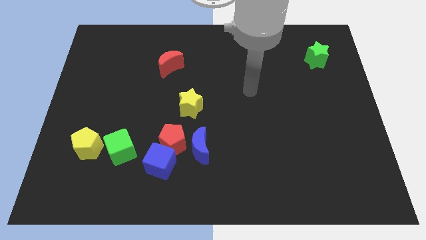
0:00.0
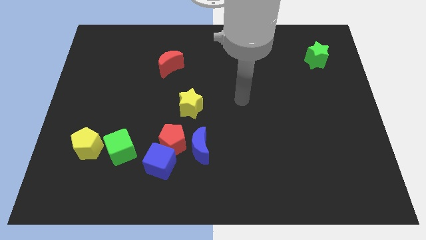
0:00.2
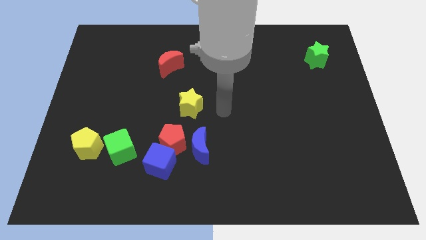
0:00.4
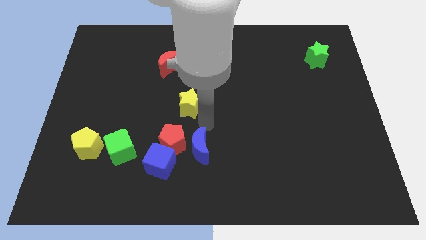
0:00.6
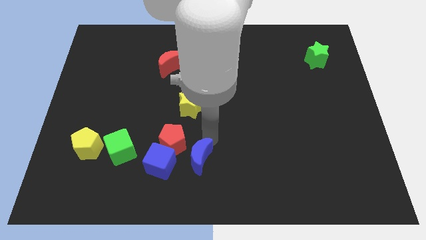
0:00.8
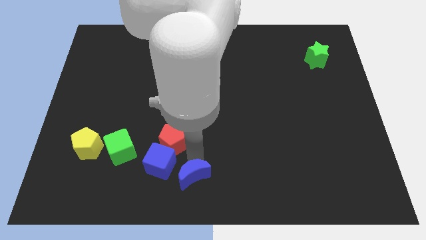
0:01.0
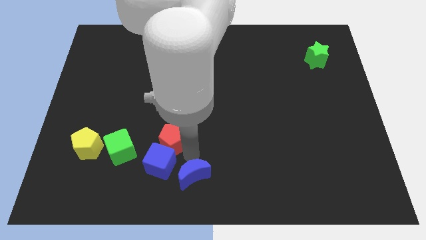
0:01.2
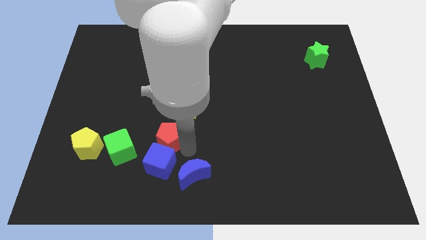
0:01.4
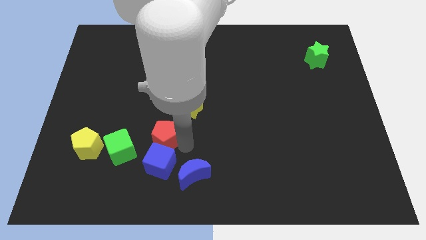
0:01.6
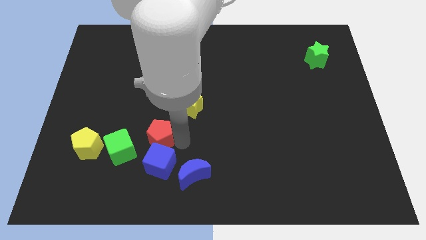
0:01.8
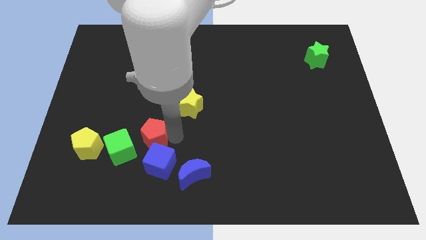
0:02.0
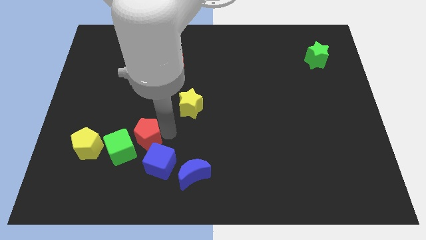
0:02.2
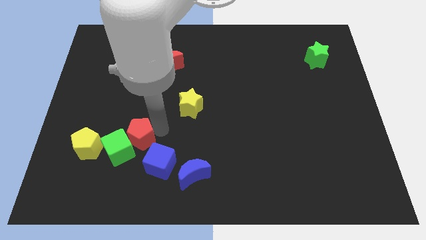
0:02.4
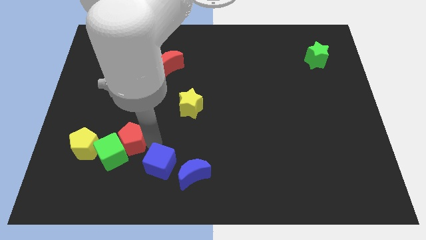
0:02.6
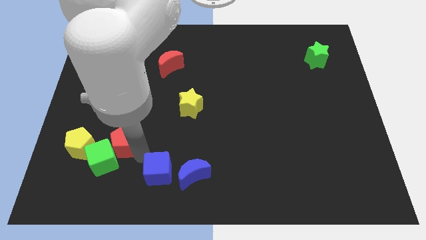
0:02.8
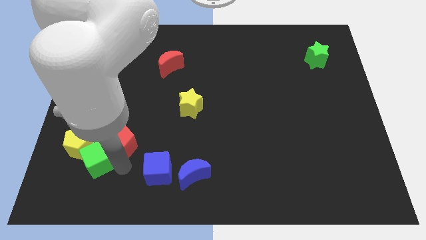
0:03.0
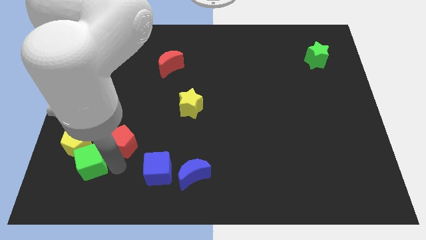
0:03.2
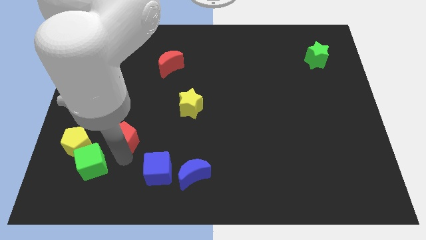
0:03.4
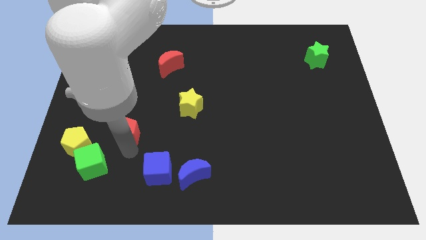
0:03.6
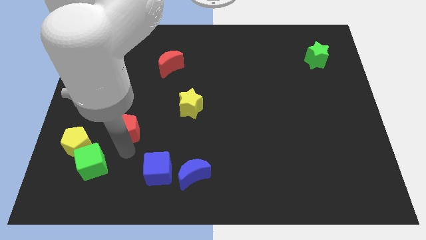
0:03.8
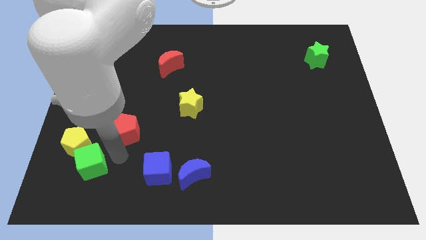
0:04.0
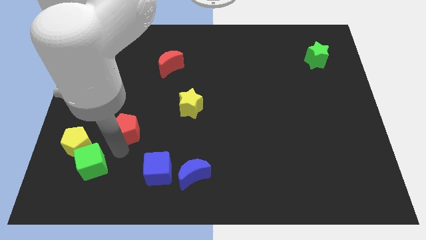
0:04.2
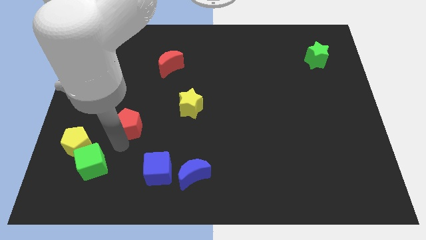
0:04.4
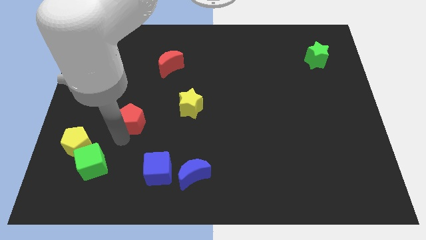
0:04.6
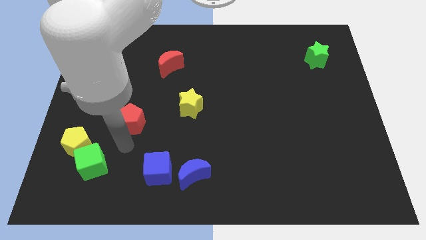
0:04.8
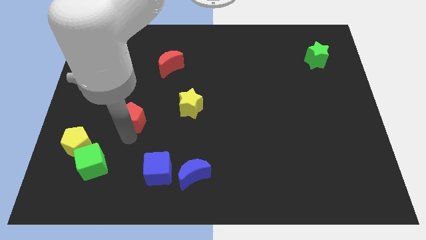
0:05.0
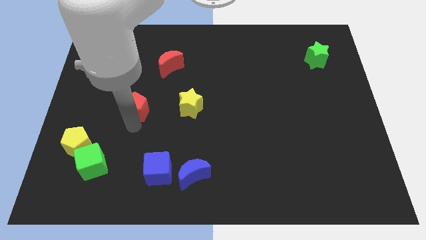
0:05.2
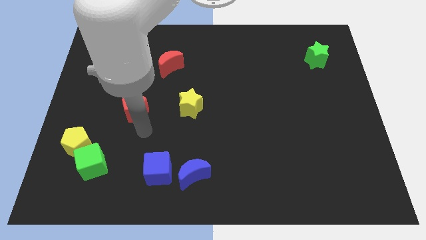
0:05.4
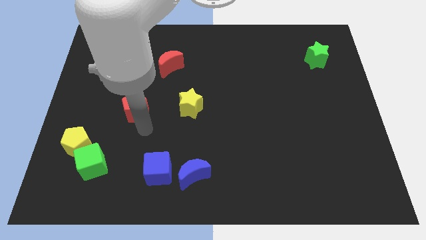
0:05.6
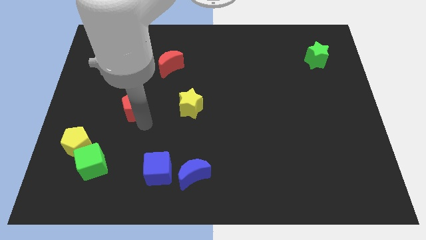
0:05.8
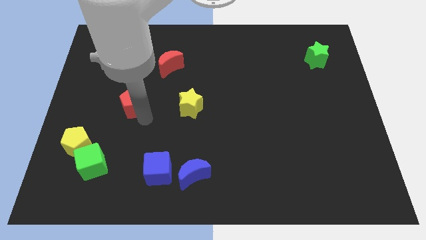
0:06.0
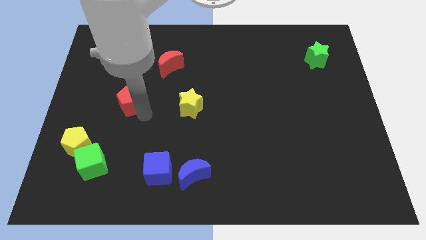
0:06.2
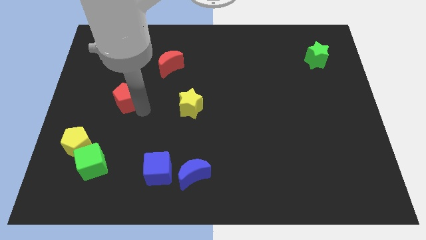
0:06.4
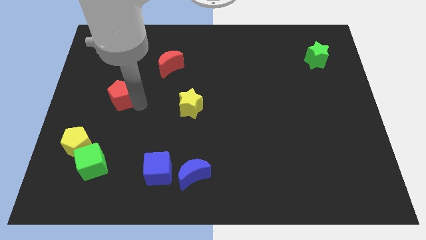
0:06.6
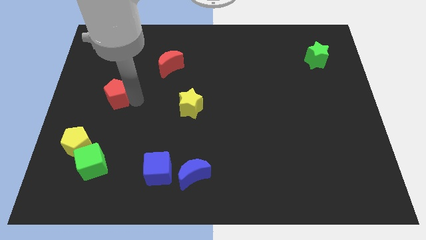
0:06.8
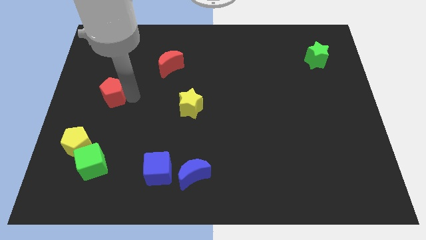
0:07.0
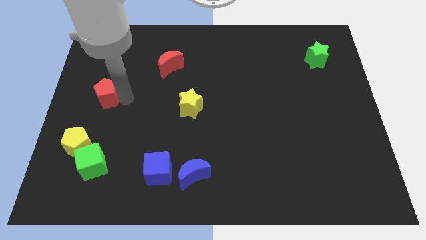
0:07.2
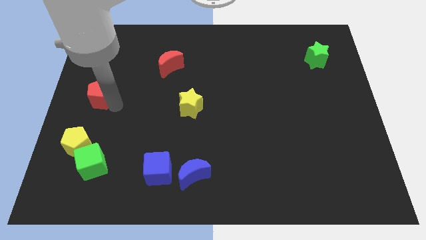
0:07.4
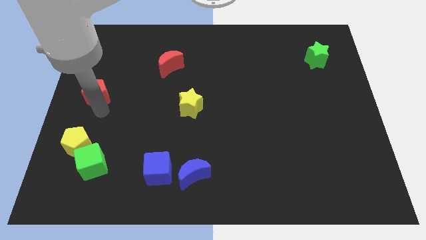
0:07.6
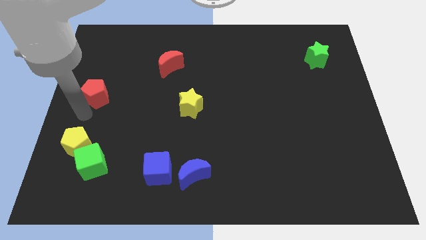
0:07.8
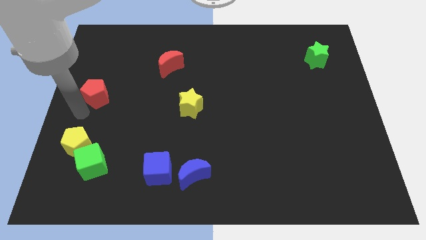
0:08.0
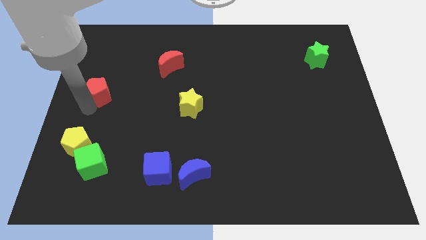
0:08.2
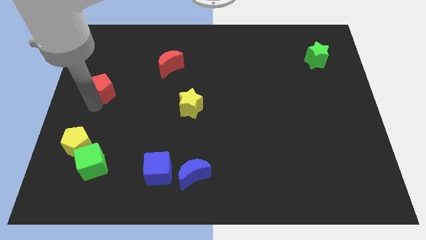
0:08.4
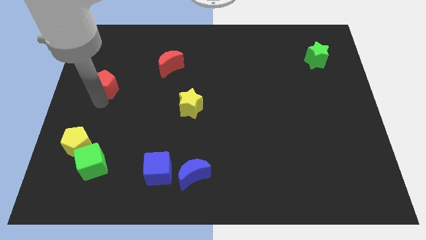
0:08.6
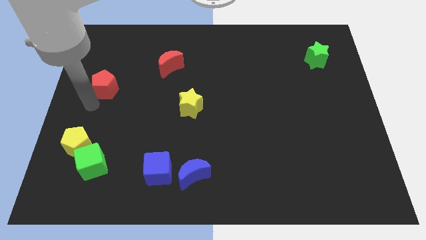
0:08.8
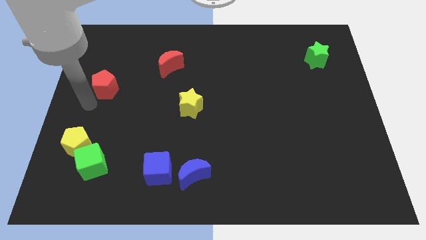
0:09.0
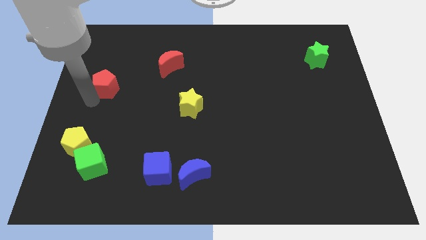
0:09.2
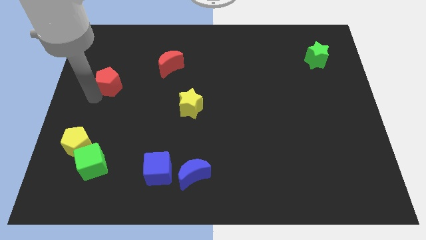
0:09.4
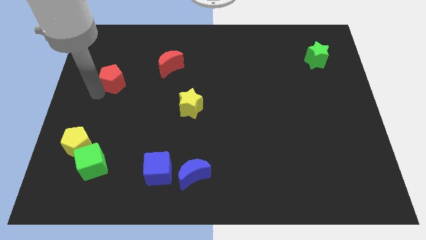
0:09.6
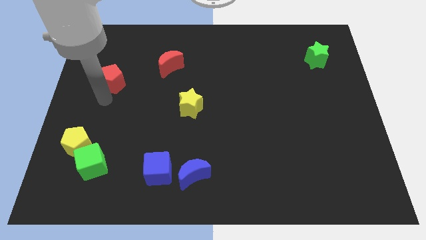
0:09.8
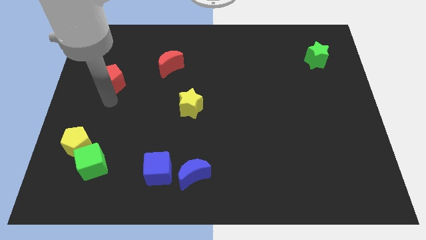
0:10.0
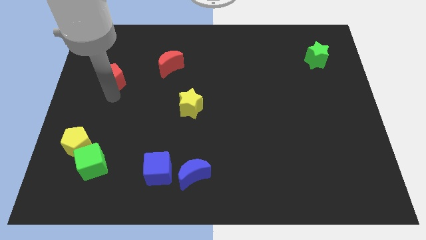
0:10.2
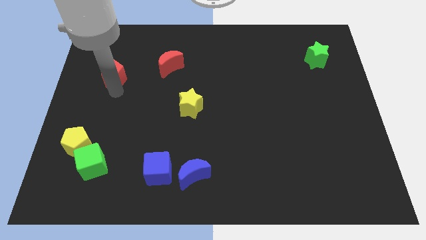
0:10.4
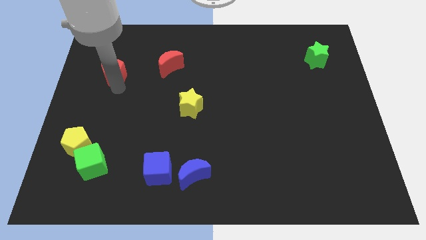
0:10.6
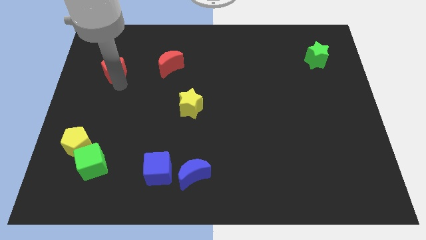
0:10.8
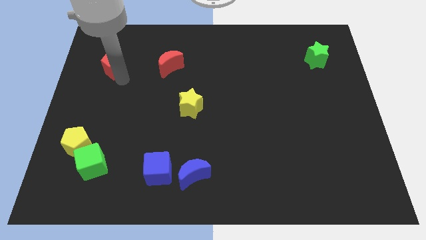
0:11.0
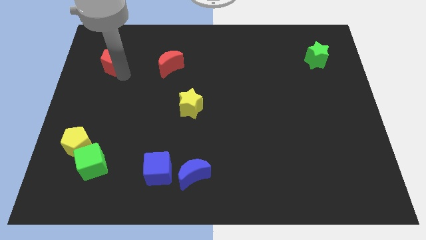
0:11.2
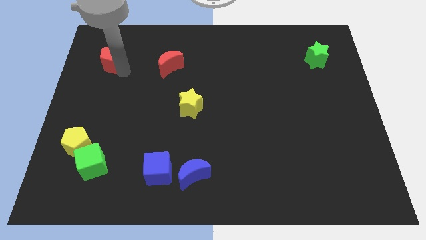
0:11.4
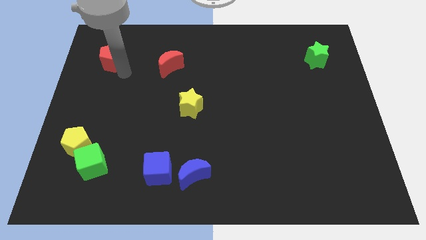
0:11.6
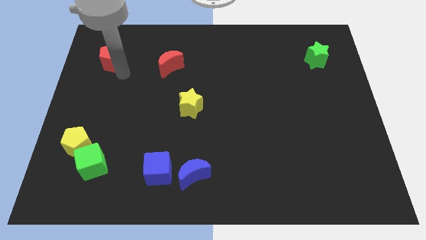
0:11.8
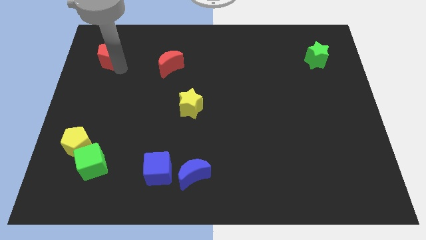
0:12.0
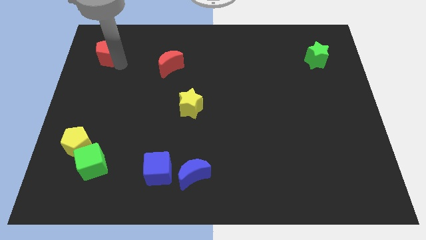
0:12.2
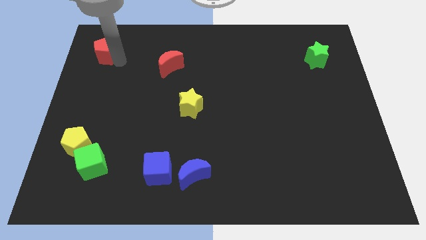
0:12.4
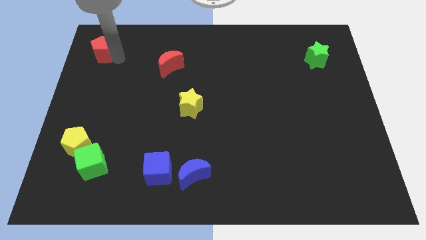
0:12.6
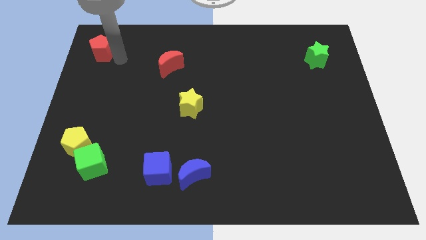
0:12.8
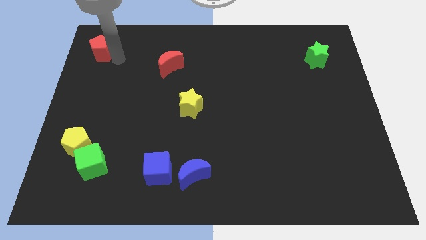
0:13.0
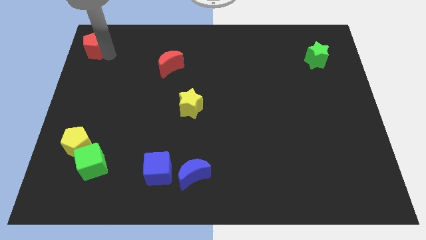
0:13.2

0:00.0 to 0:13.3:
slide the red pentagon to the upper left corner
